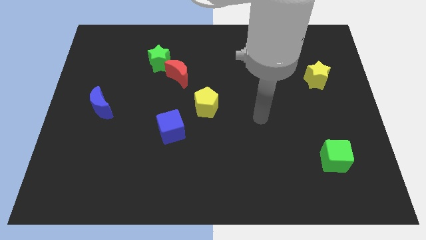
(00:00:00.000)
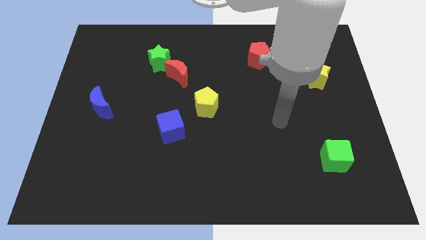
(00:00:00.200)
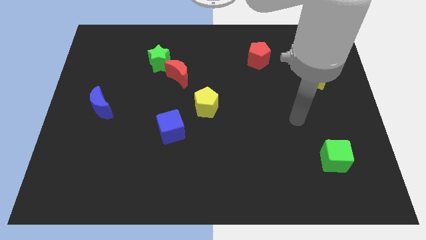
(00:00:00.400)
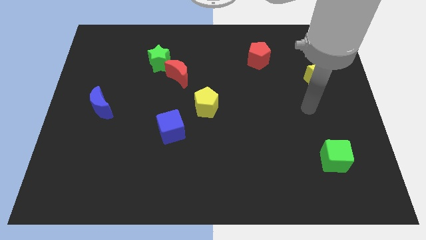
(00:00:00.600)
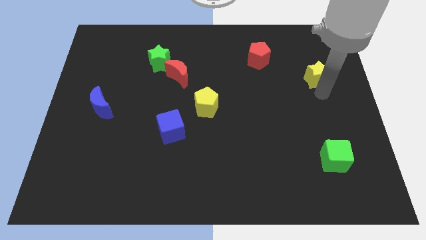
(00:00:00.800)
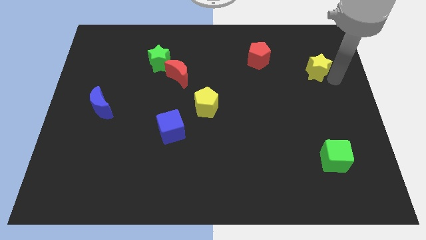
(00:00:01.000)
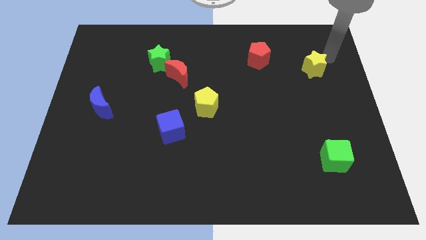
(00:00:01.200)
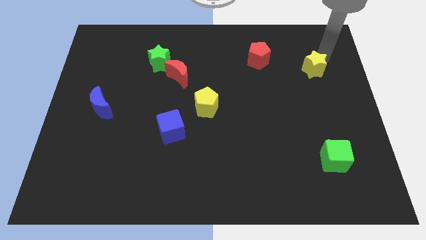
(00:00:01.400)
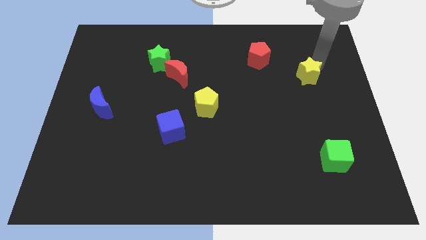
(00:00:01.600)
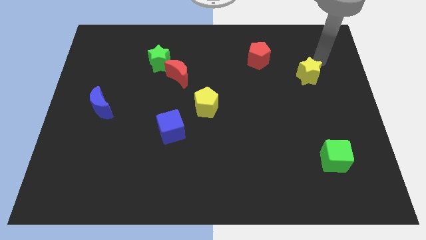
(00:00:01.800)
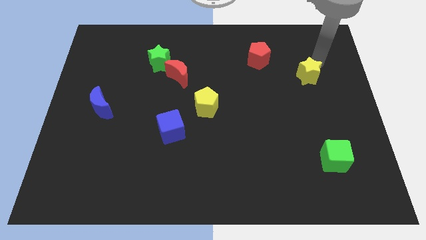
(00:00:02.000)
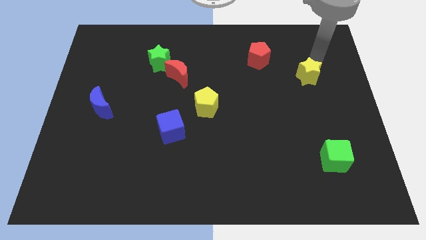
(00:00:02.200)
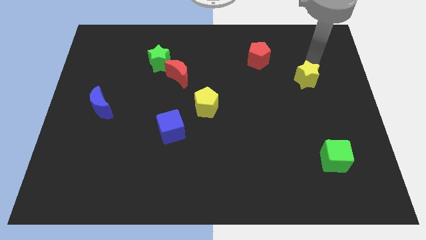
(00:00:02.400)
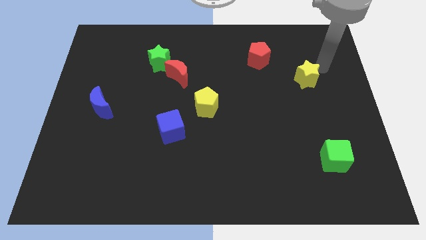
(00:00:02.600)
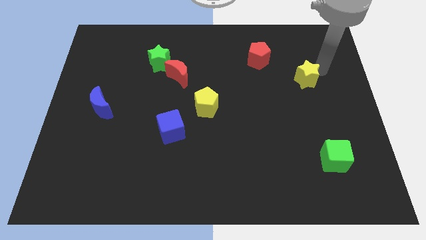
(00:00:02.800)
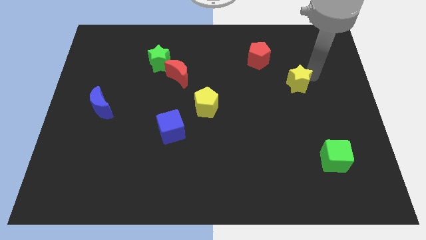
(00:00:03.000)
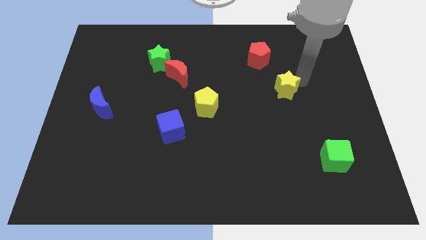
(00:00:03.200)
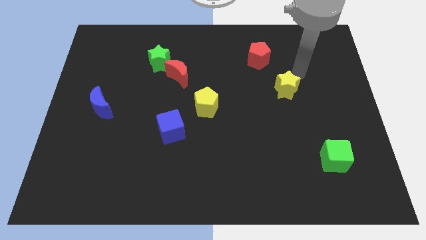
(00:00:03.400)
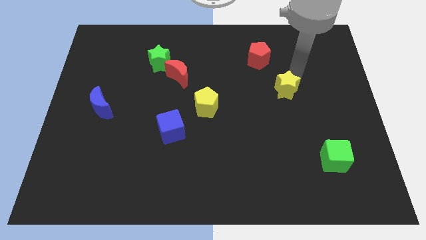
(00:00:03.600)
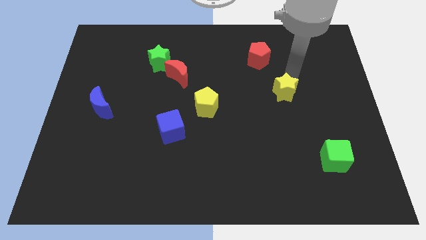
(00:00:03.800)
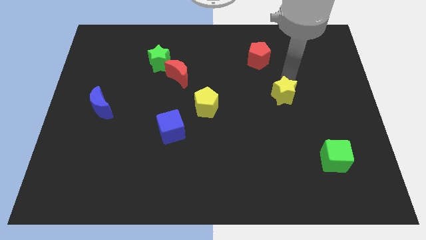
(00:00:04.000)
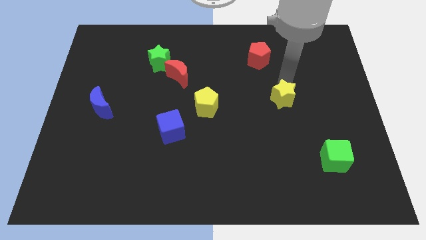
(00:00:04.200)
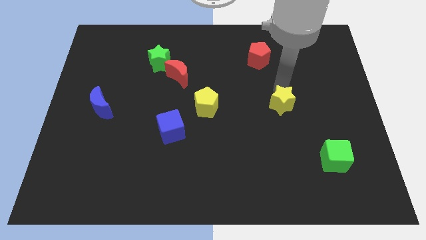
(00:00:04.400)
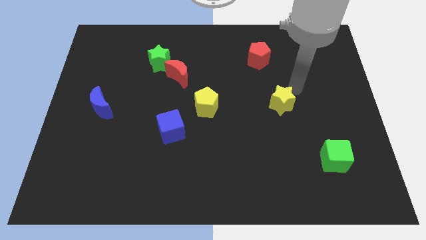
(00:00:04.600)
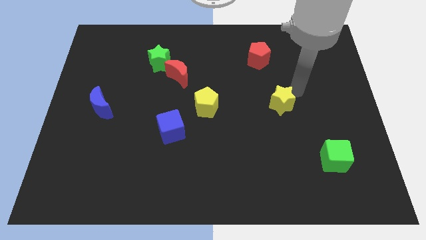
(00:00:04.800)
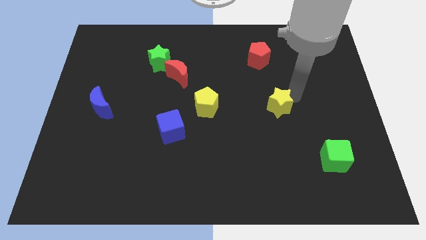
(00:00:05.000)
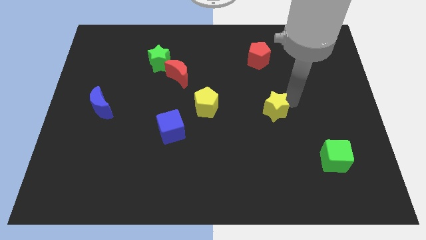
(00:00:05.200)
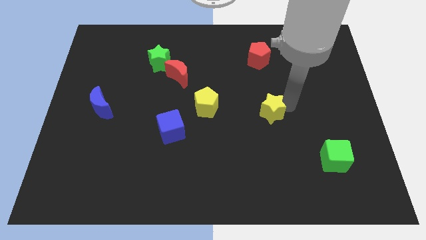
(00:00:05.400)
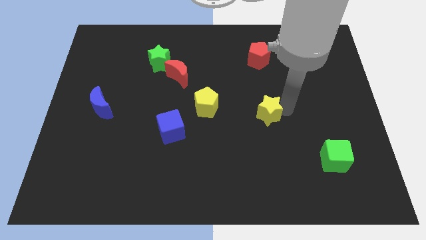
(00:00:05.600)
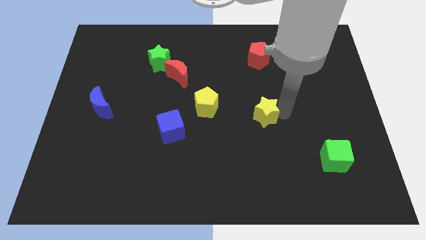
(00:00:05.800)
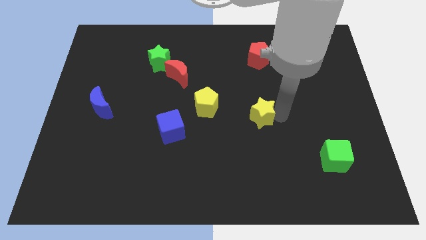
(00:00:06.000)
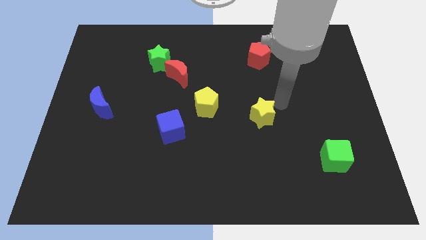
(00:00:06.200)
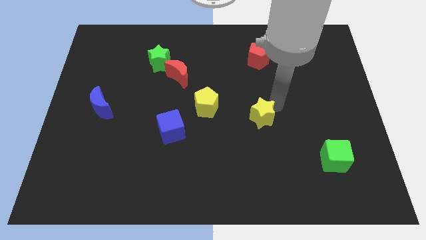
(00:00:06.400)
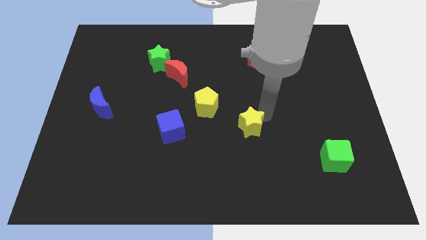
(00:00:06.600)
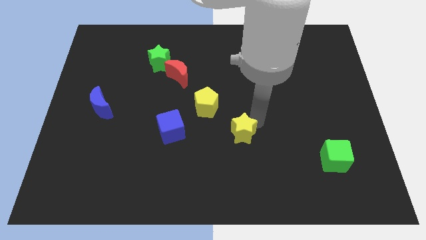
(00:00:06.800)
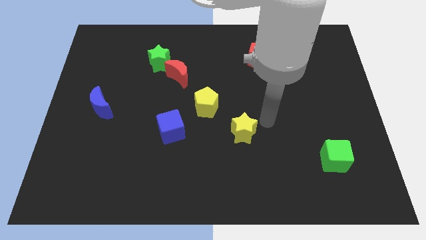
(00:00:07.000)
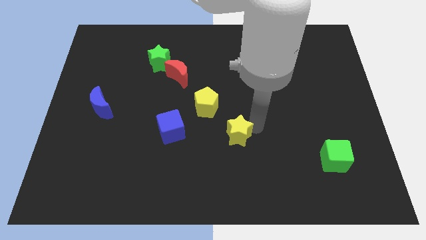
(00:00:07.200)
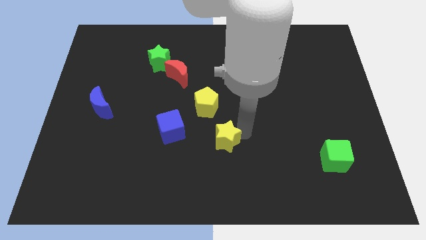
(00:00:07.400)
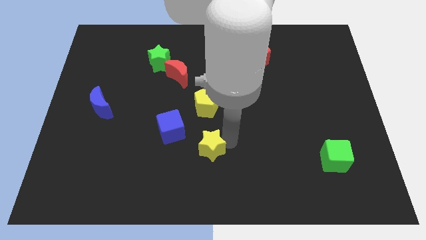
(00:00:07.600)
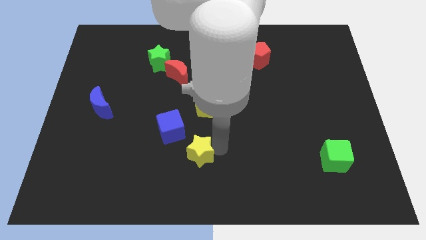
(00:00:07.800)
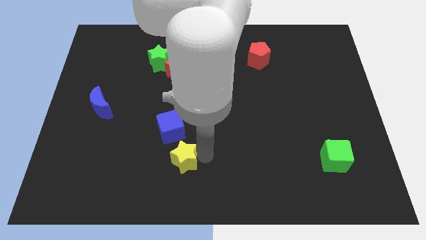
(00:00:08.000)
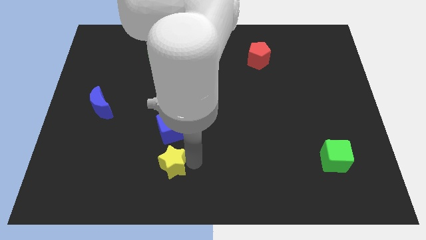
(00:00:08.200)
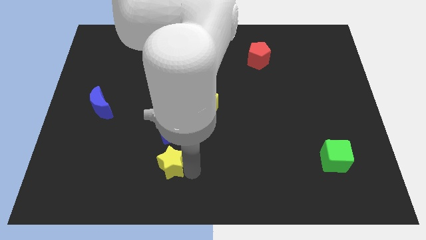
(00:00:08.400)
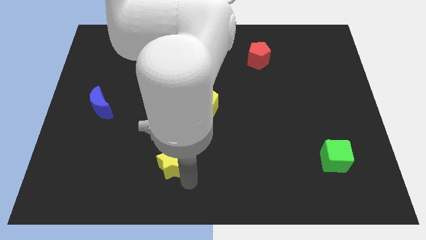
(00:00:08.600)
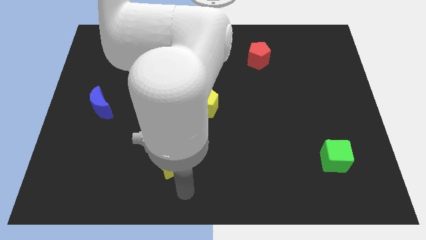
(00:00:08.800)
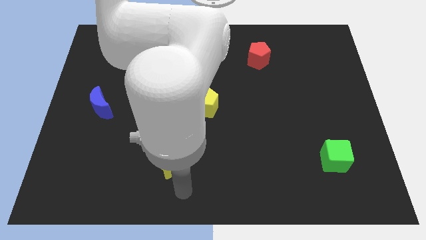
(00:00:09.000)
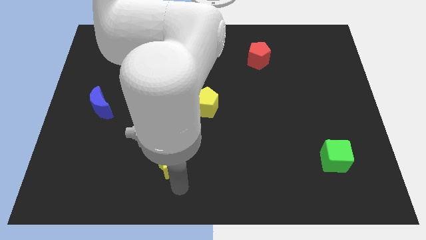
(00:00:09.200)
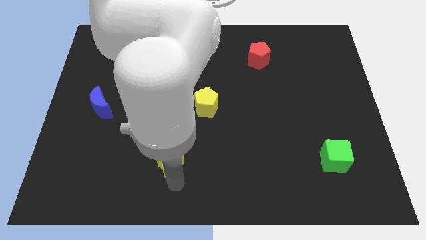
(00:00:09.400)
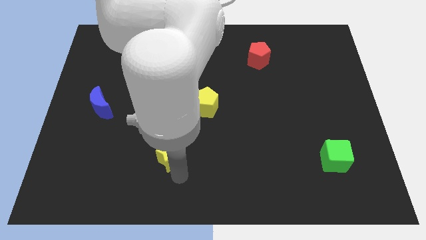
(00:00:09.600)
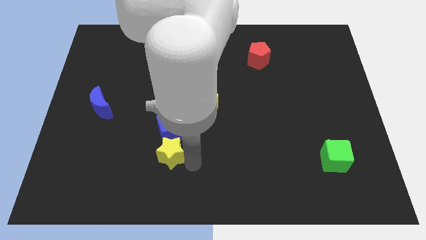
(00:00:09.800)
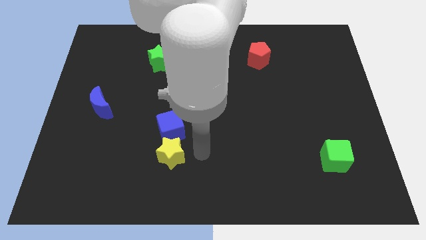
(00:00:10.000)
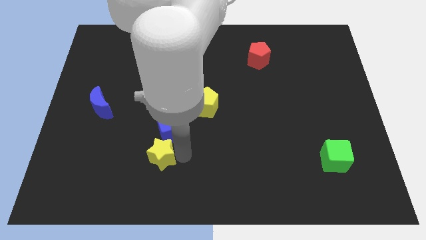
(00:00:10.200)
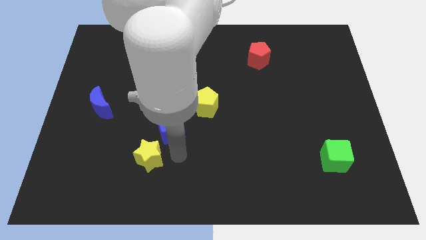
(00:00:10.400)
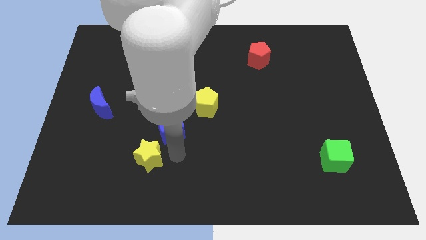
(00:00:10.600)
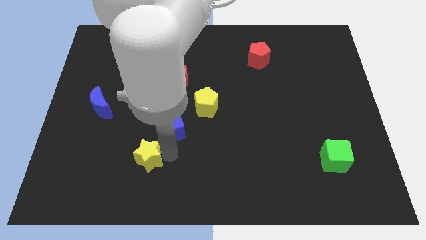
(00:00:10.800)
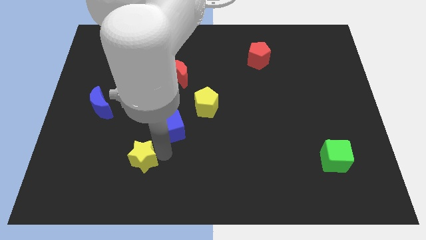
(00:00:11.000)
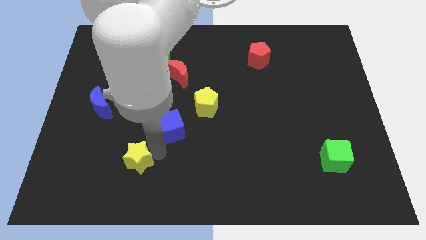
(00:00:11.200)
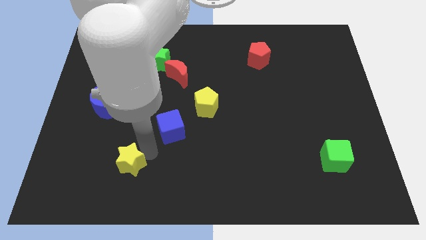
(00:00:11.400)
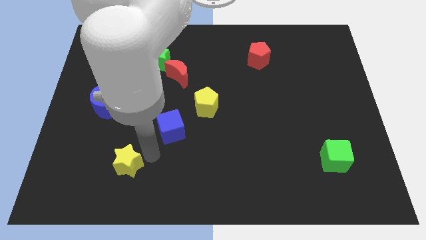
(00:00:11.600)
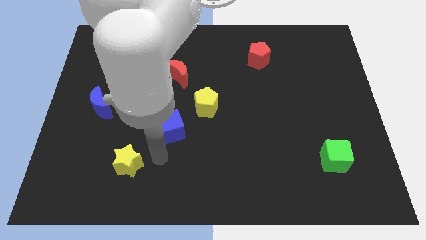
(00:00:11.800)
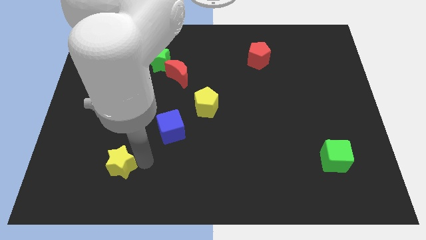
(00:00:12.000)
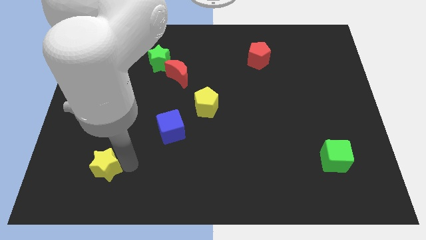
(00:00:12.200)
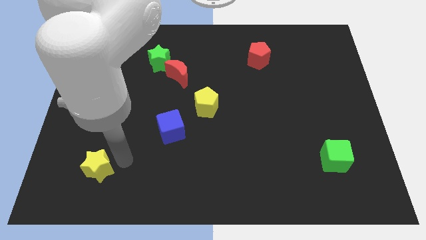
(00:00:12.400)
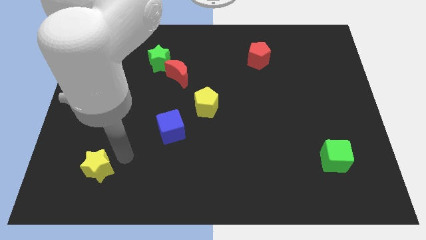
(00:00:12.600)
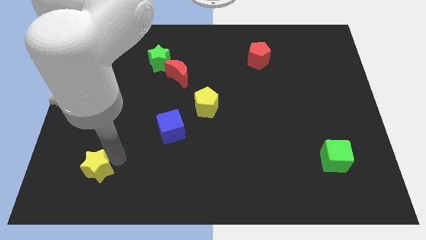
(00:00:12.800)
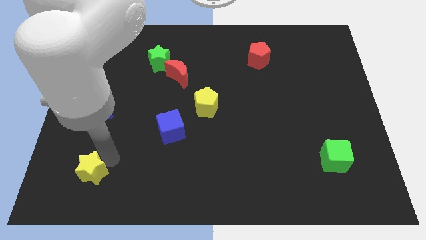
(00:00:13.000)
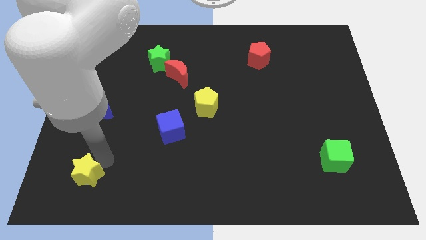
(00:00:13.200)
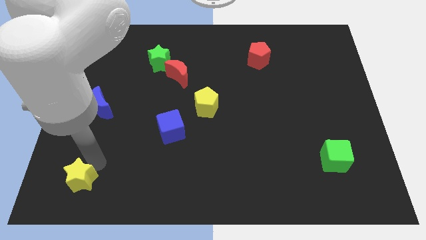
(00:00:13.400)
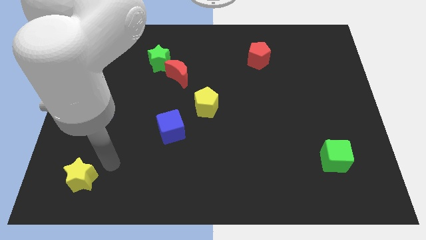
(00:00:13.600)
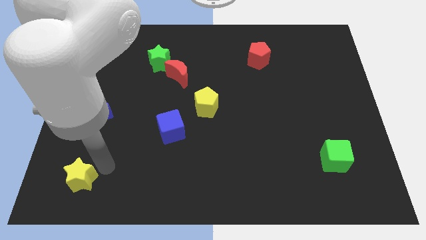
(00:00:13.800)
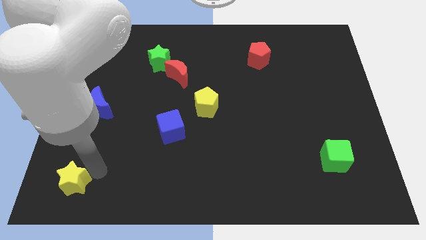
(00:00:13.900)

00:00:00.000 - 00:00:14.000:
put the yellow star to the bottom left of the board
